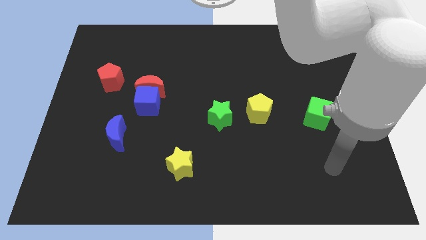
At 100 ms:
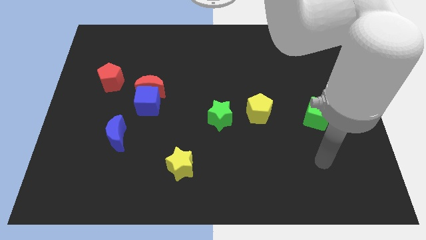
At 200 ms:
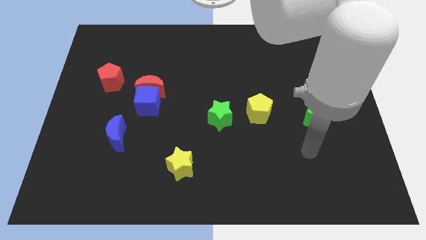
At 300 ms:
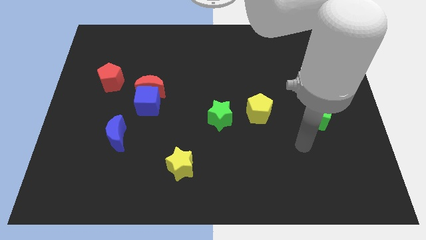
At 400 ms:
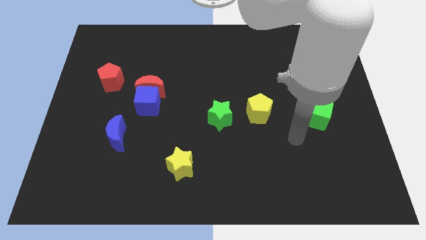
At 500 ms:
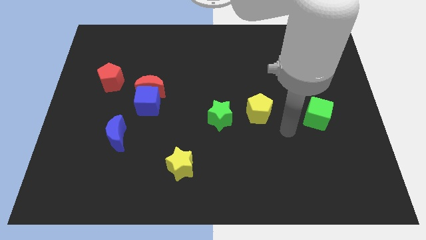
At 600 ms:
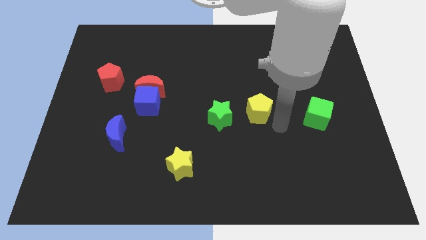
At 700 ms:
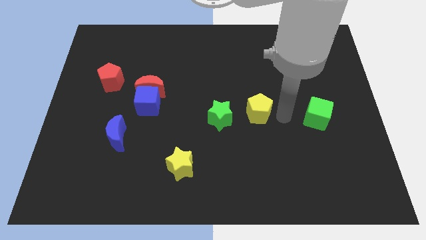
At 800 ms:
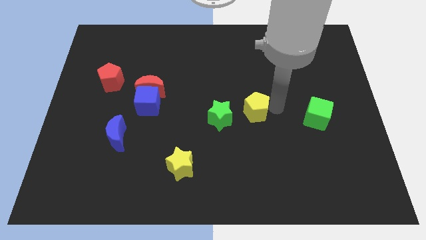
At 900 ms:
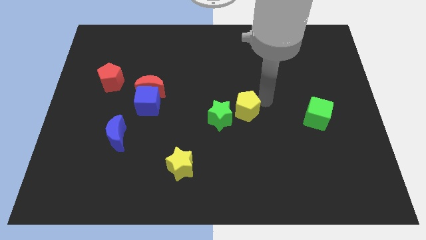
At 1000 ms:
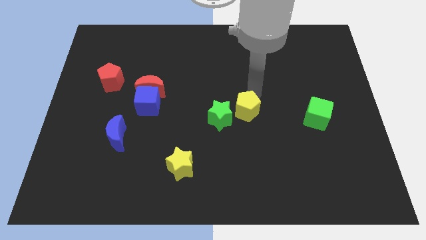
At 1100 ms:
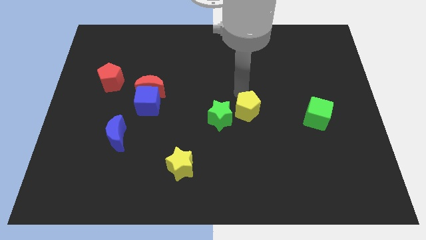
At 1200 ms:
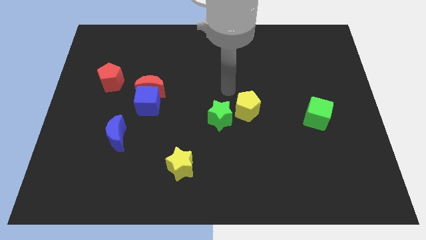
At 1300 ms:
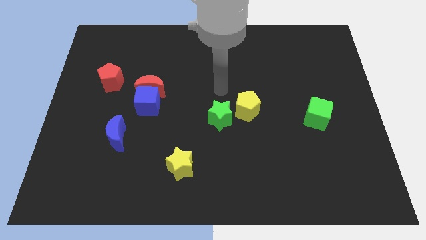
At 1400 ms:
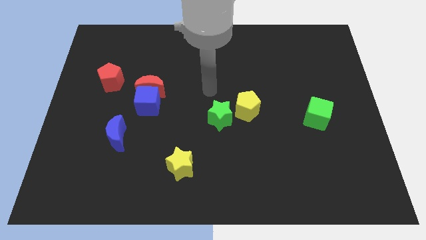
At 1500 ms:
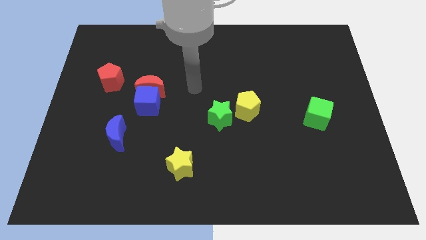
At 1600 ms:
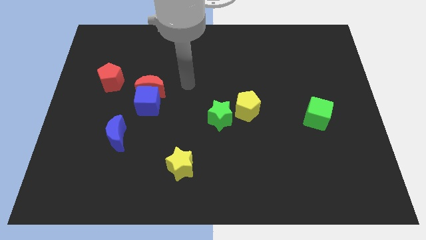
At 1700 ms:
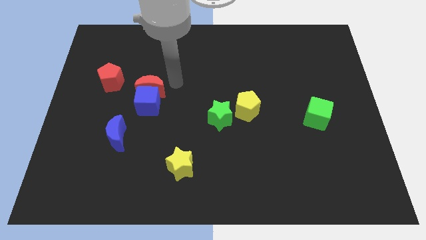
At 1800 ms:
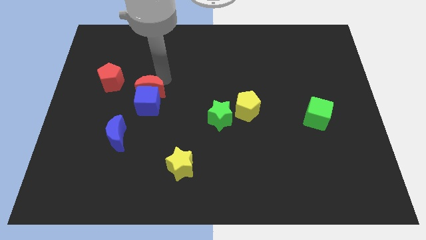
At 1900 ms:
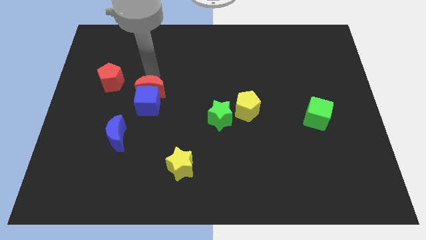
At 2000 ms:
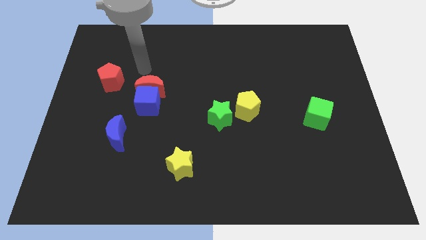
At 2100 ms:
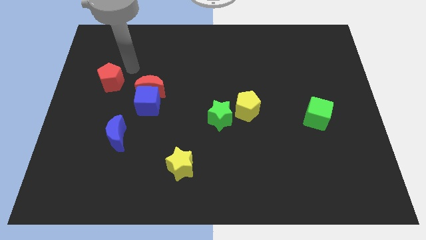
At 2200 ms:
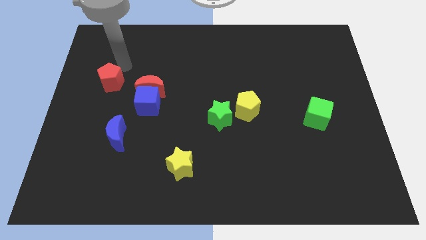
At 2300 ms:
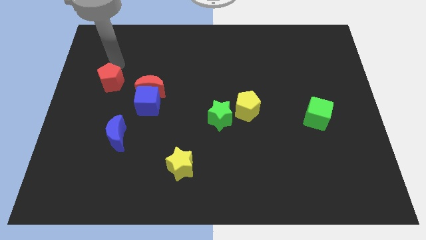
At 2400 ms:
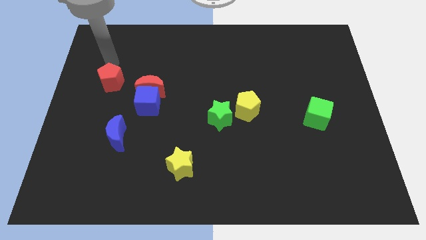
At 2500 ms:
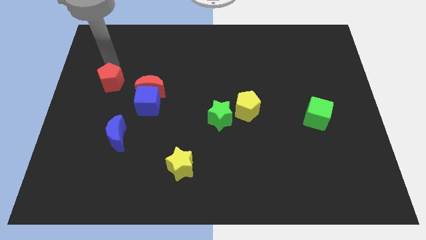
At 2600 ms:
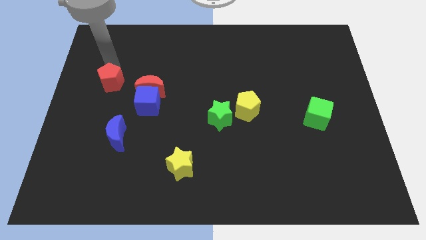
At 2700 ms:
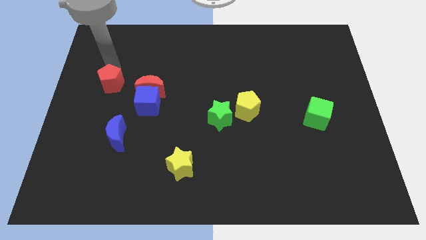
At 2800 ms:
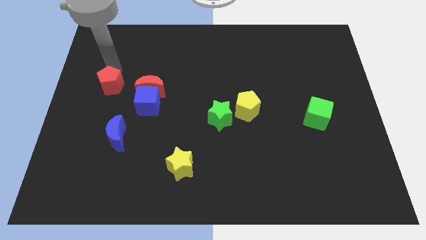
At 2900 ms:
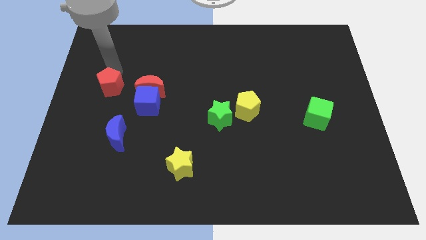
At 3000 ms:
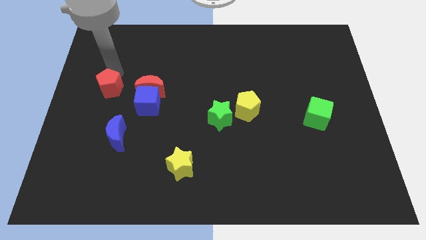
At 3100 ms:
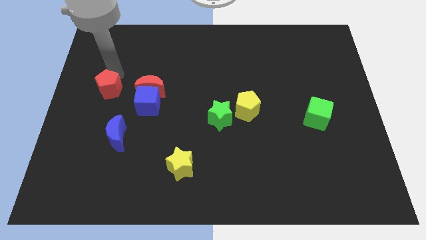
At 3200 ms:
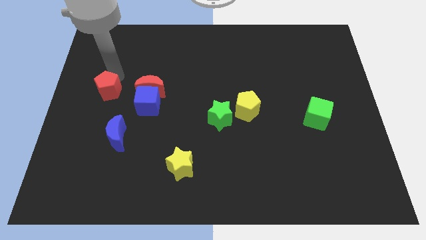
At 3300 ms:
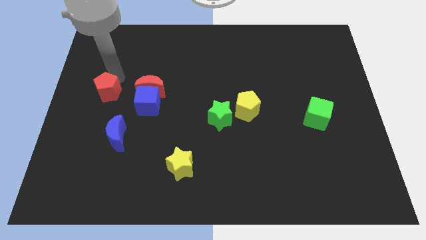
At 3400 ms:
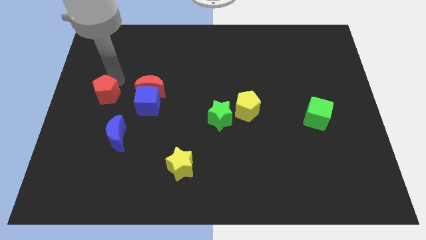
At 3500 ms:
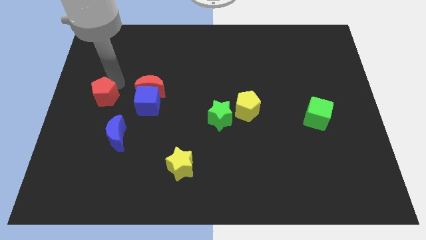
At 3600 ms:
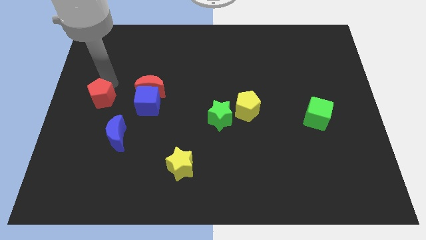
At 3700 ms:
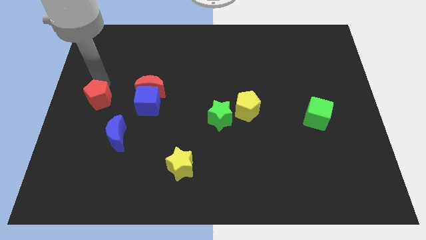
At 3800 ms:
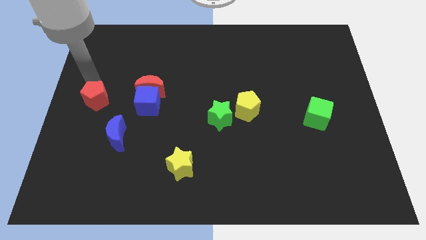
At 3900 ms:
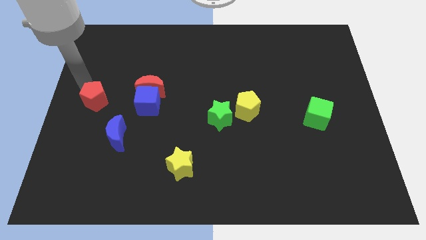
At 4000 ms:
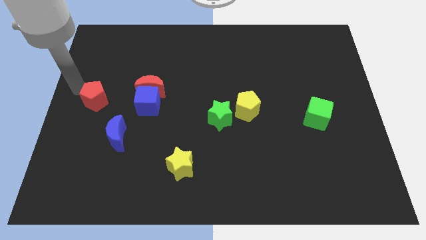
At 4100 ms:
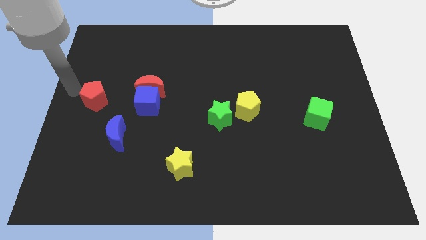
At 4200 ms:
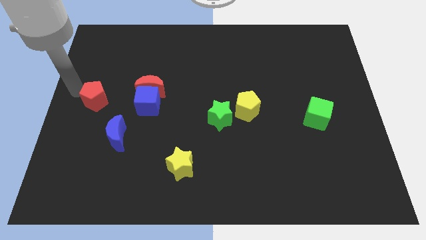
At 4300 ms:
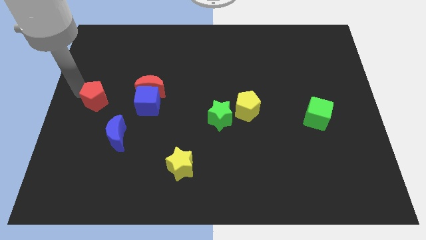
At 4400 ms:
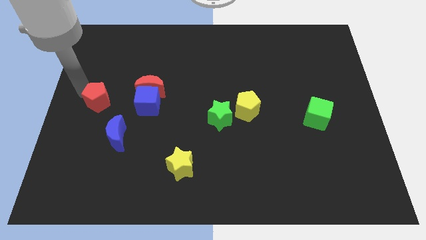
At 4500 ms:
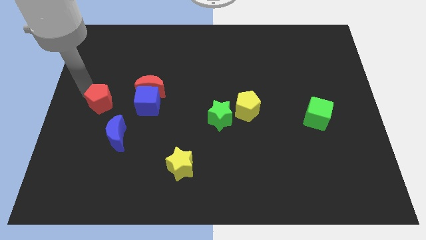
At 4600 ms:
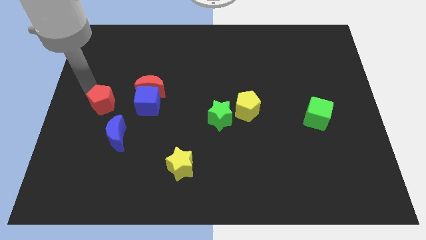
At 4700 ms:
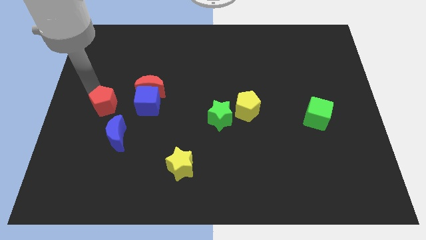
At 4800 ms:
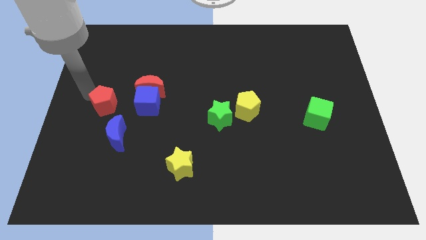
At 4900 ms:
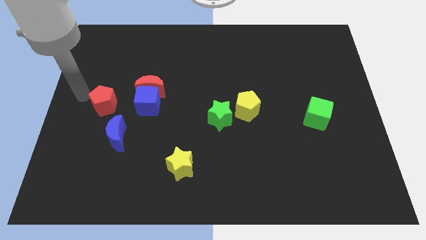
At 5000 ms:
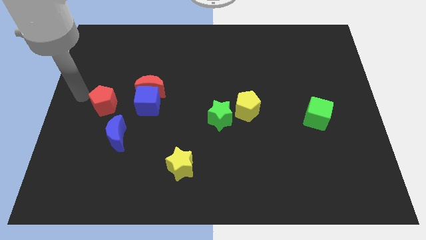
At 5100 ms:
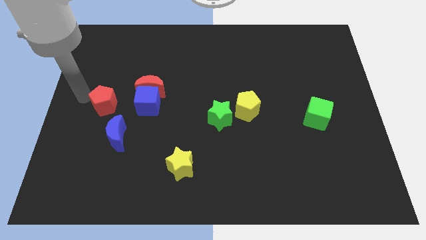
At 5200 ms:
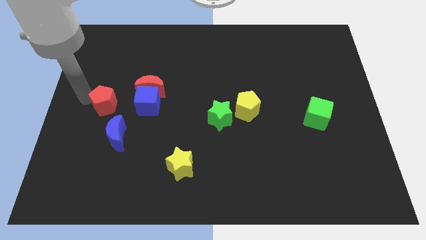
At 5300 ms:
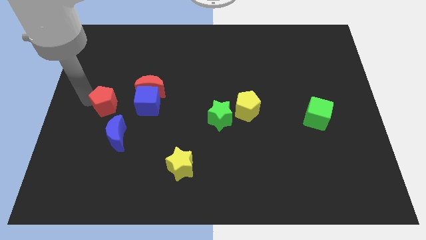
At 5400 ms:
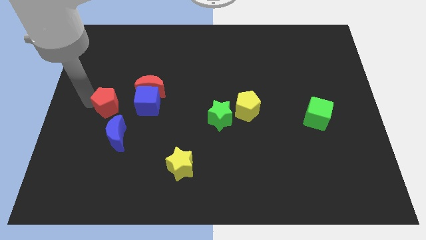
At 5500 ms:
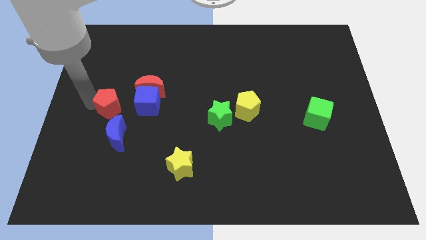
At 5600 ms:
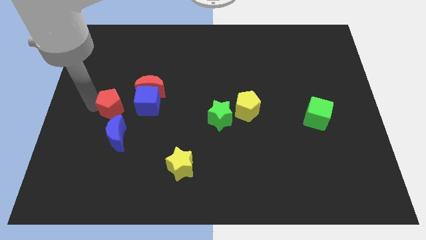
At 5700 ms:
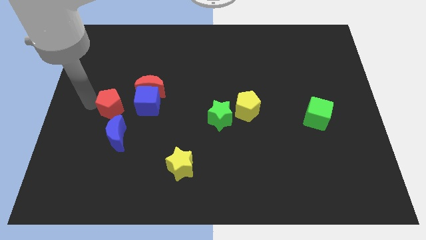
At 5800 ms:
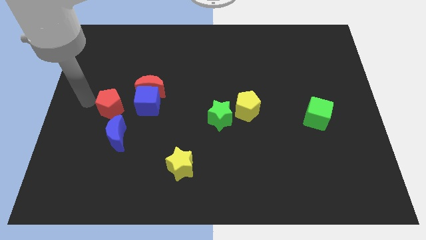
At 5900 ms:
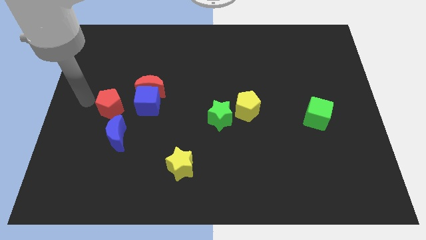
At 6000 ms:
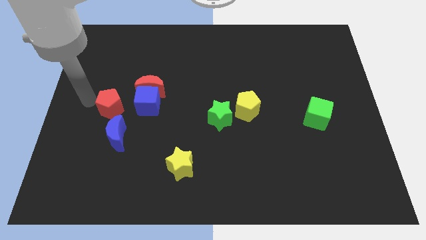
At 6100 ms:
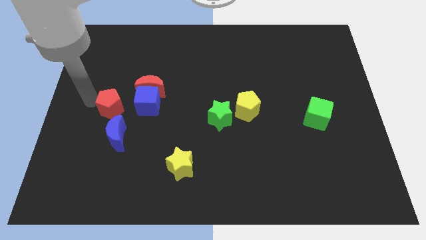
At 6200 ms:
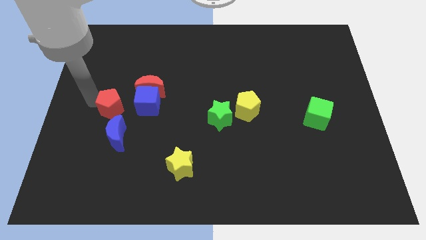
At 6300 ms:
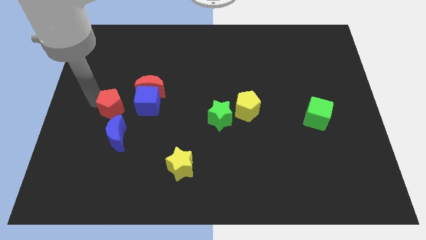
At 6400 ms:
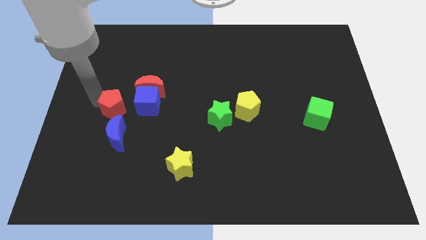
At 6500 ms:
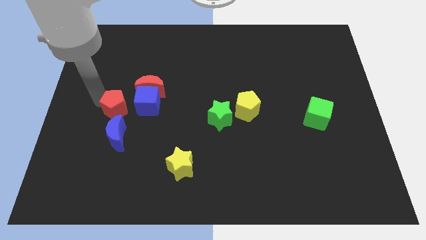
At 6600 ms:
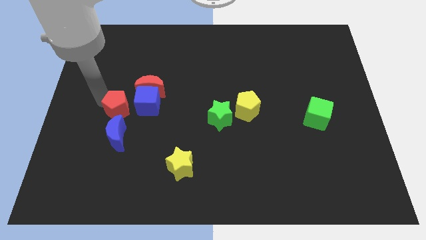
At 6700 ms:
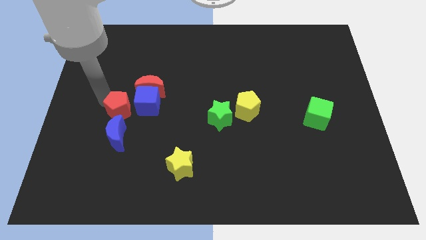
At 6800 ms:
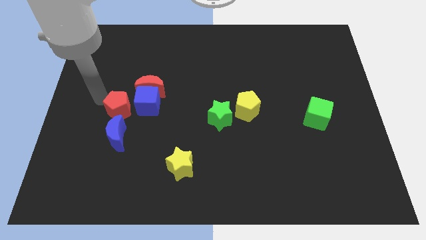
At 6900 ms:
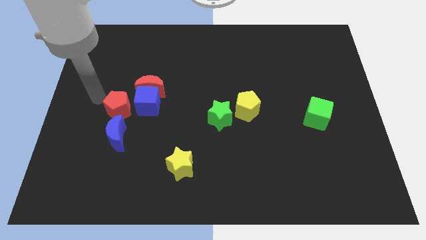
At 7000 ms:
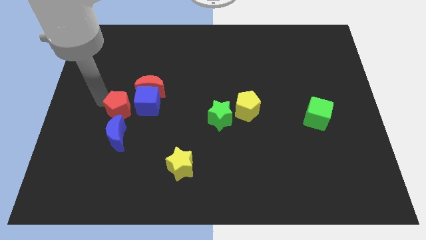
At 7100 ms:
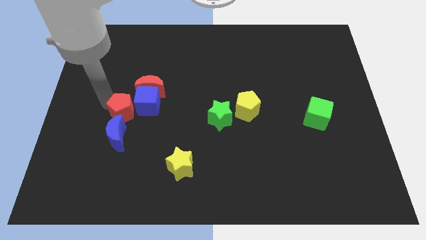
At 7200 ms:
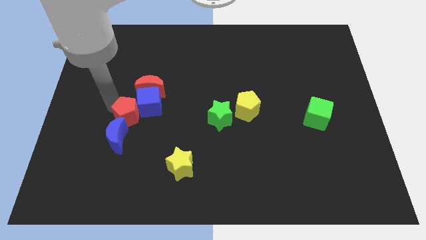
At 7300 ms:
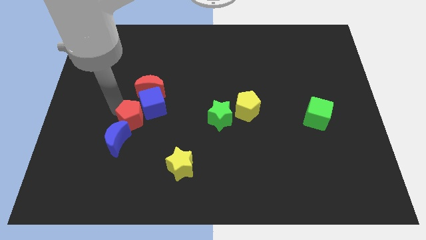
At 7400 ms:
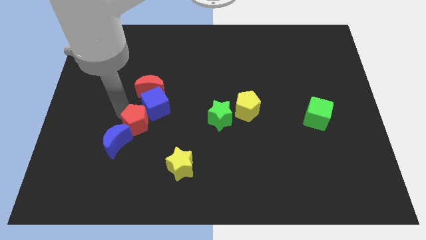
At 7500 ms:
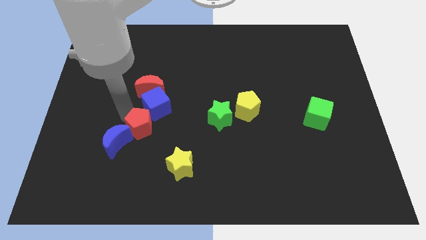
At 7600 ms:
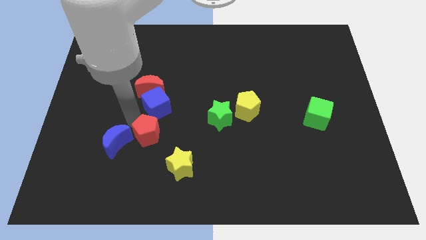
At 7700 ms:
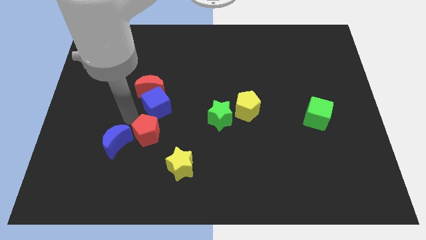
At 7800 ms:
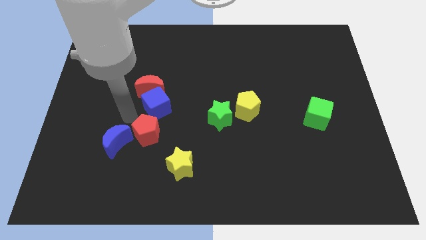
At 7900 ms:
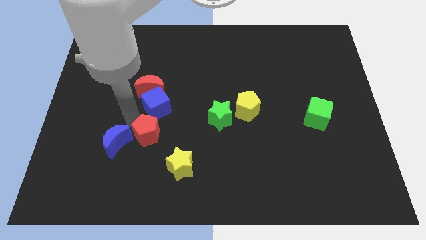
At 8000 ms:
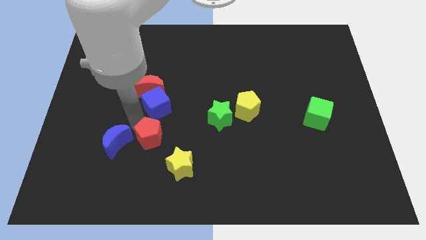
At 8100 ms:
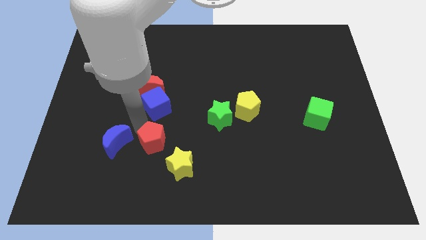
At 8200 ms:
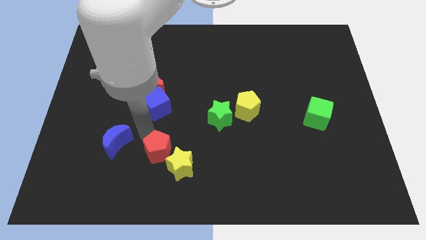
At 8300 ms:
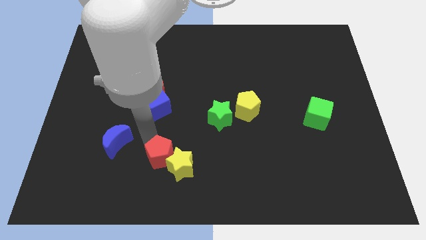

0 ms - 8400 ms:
push the red pentagon close to the yellow star
